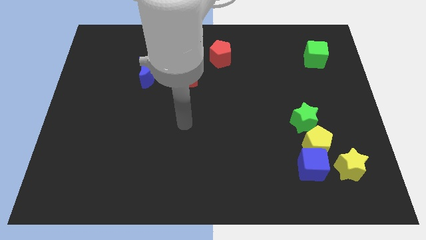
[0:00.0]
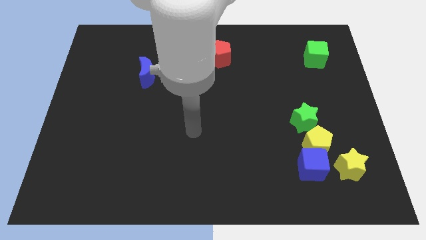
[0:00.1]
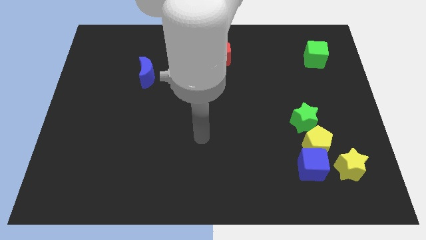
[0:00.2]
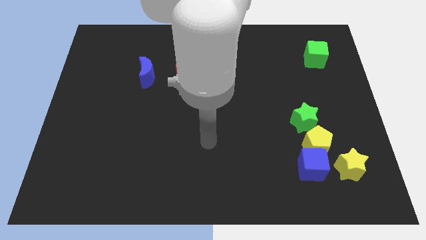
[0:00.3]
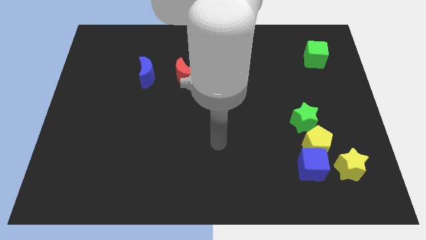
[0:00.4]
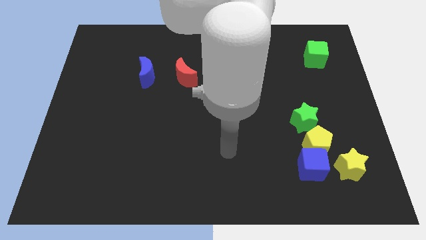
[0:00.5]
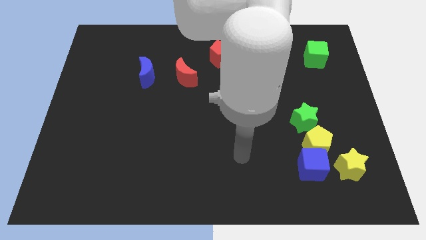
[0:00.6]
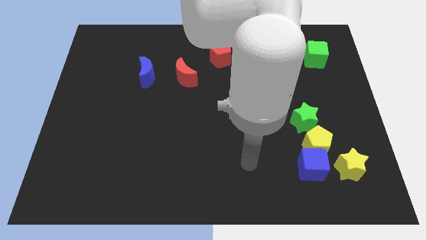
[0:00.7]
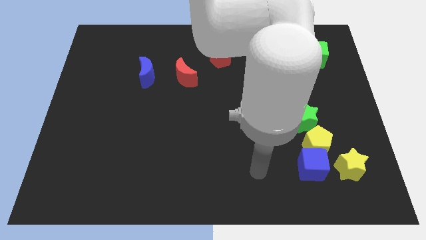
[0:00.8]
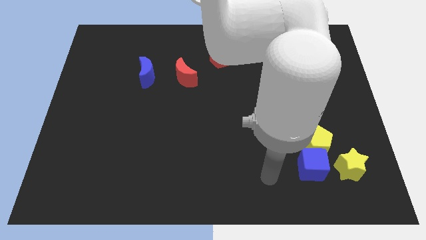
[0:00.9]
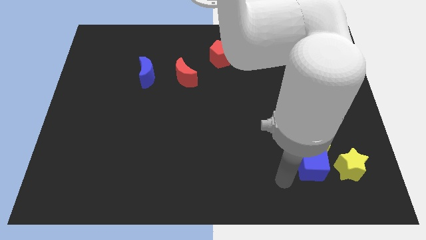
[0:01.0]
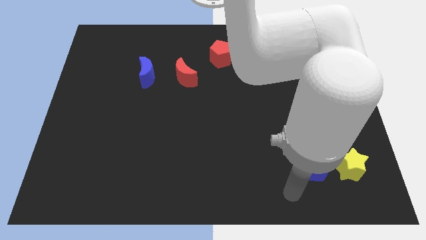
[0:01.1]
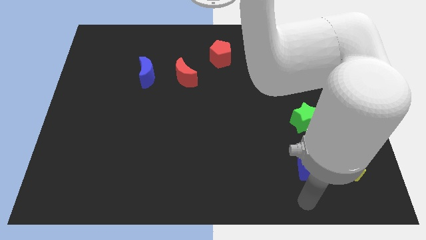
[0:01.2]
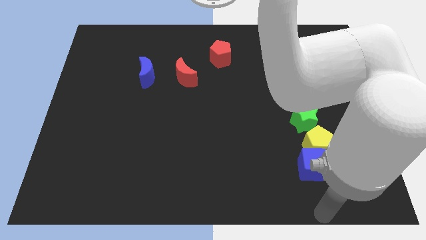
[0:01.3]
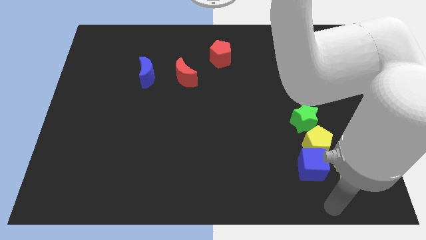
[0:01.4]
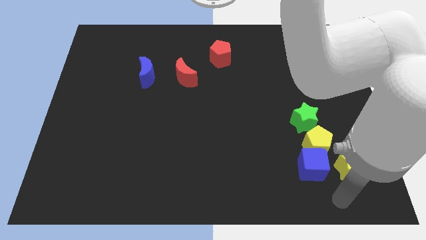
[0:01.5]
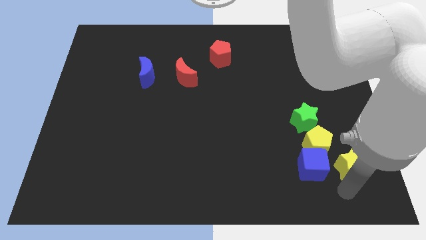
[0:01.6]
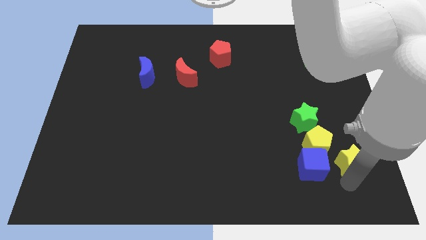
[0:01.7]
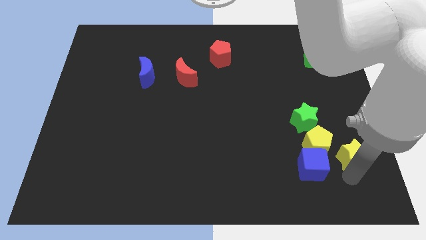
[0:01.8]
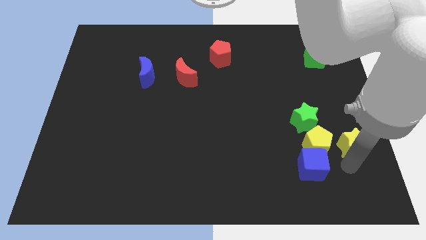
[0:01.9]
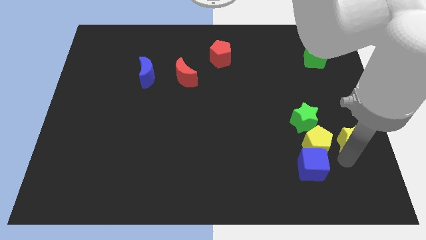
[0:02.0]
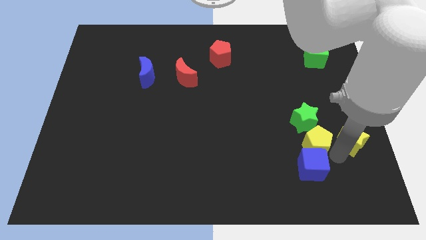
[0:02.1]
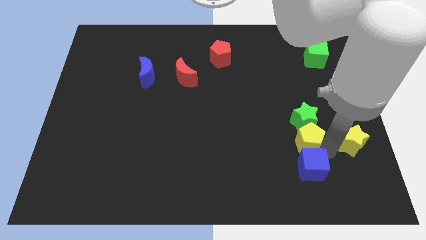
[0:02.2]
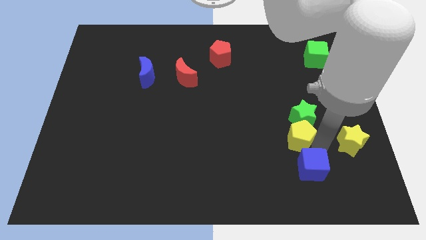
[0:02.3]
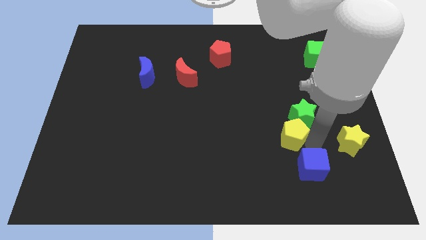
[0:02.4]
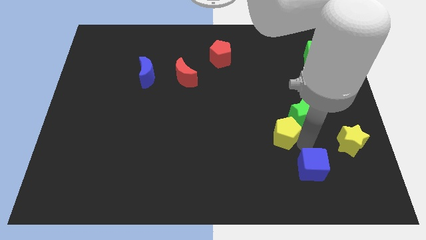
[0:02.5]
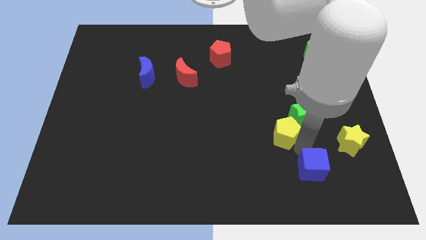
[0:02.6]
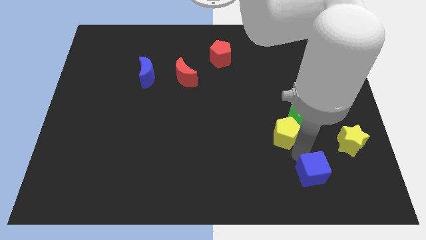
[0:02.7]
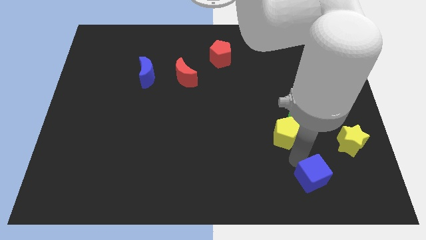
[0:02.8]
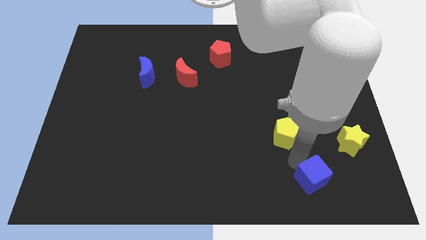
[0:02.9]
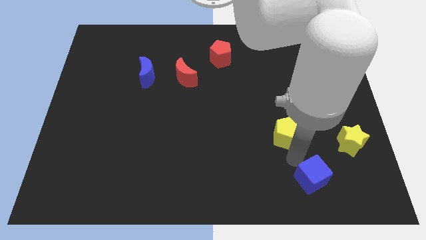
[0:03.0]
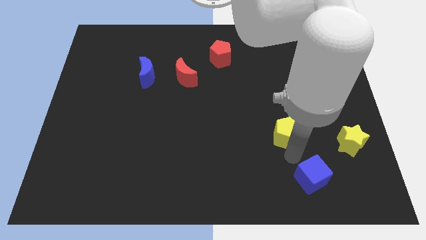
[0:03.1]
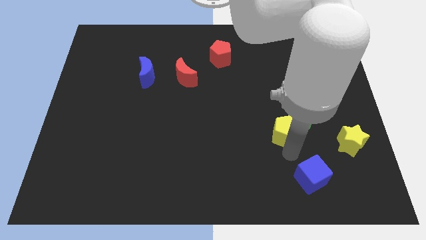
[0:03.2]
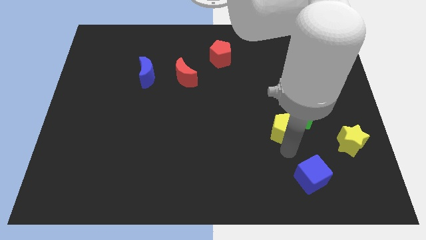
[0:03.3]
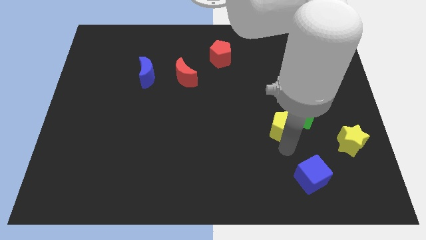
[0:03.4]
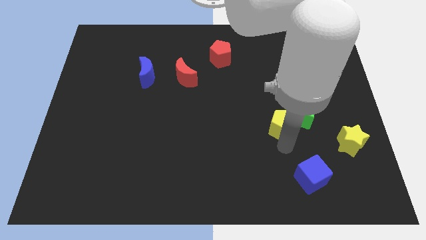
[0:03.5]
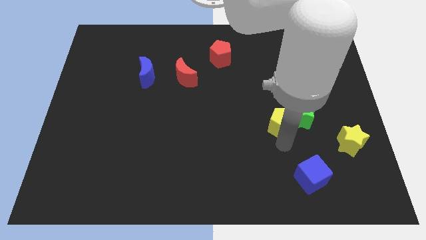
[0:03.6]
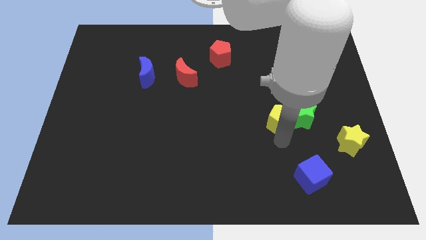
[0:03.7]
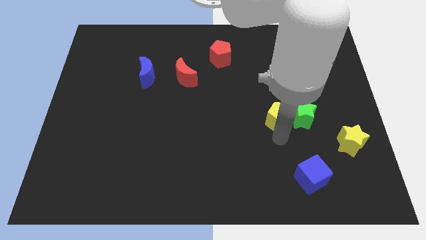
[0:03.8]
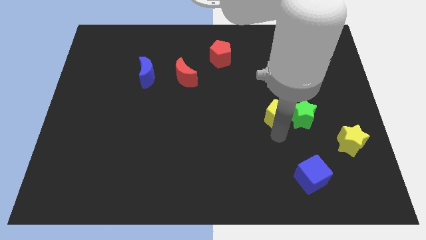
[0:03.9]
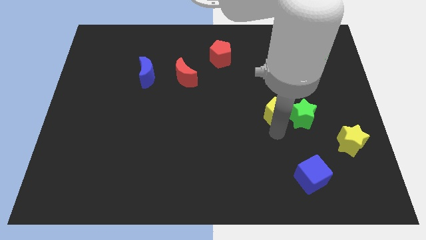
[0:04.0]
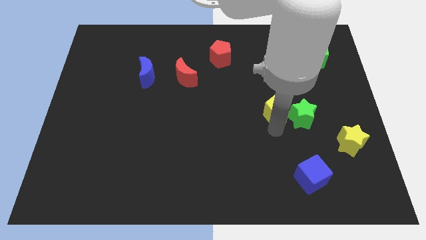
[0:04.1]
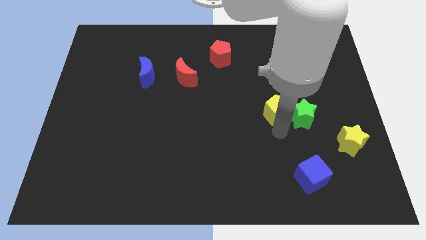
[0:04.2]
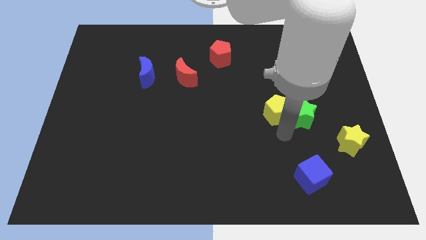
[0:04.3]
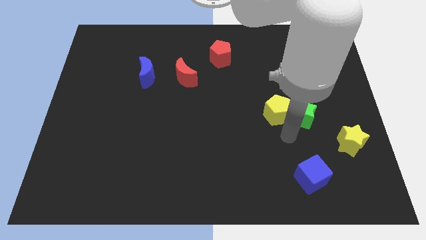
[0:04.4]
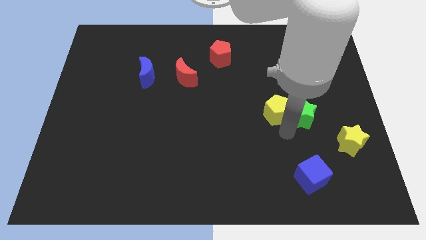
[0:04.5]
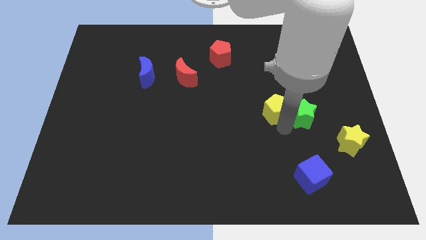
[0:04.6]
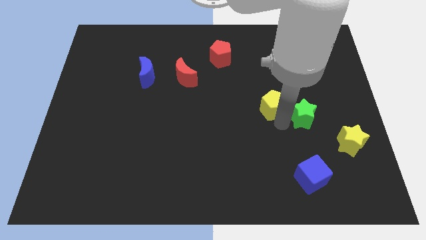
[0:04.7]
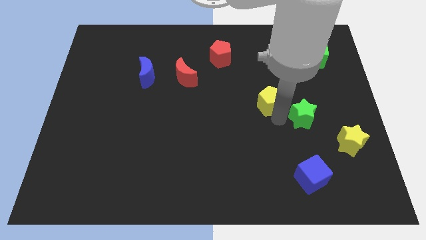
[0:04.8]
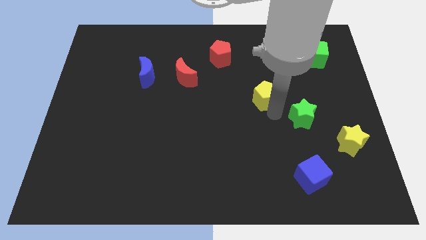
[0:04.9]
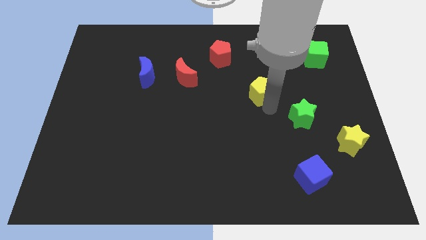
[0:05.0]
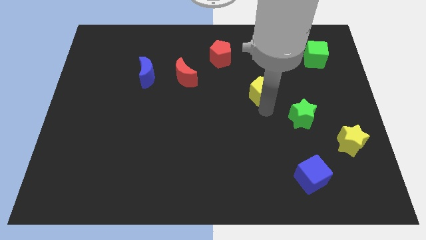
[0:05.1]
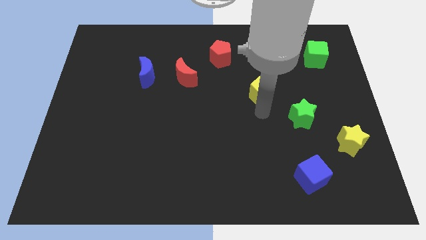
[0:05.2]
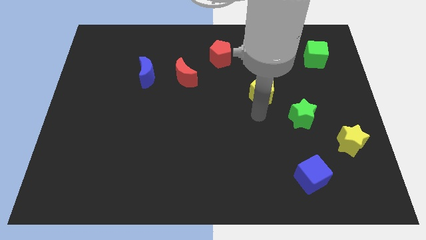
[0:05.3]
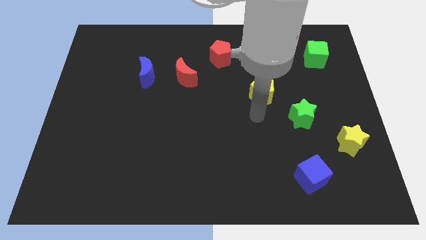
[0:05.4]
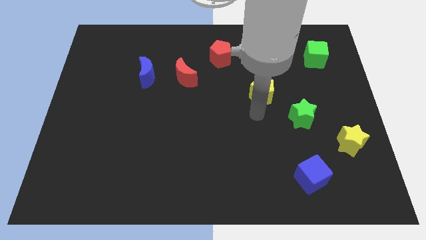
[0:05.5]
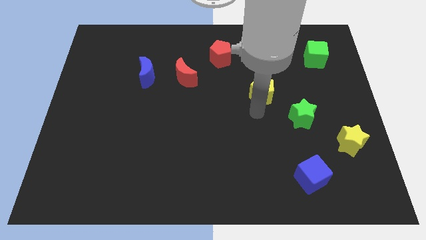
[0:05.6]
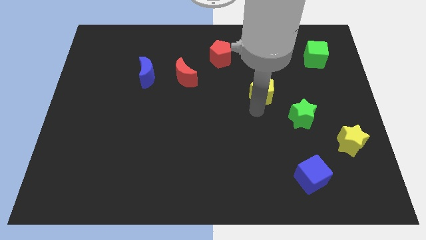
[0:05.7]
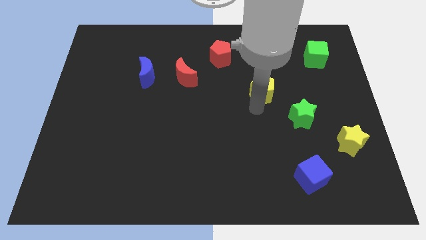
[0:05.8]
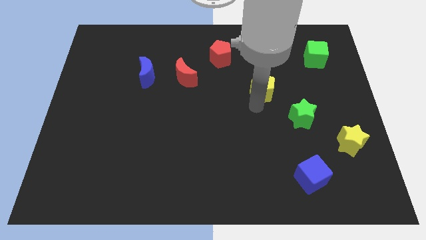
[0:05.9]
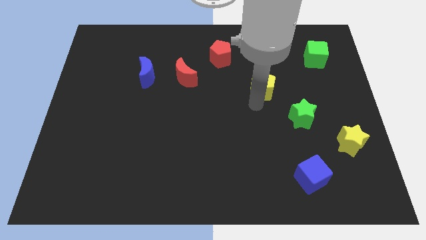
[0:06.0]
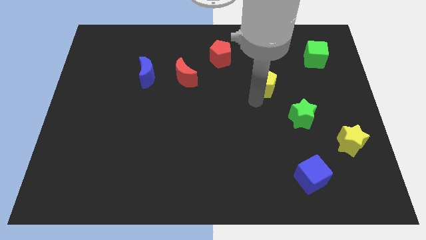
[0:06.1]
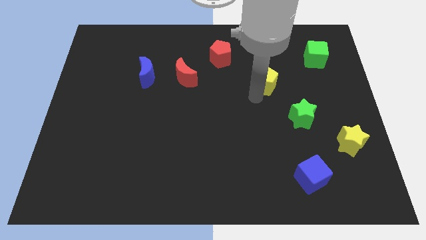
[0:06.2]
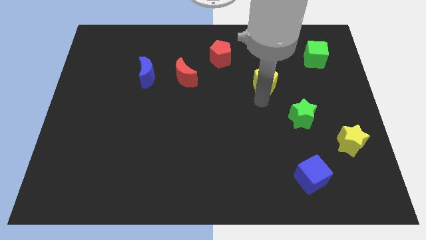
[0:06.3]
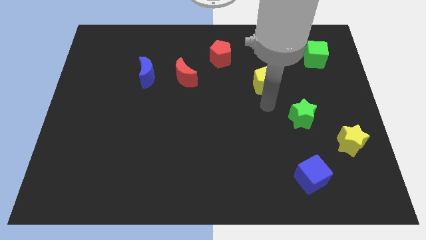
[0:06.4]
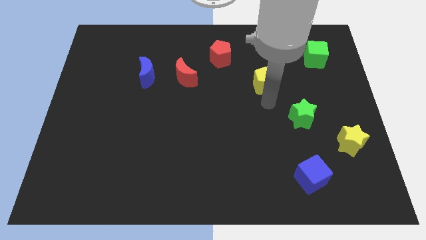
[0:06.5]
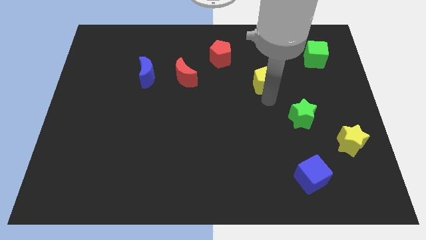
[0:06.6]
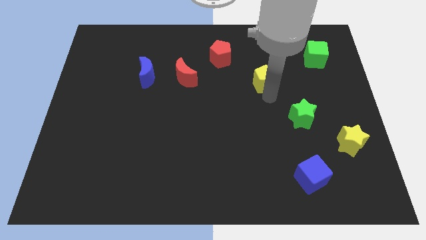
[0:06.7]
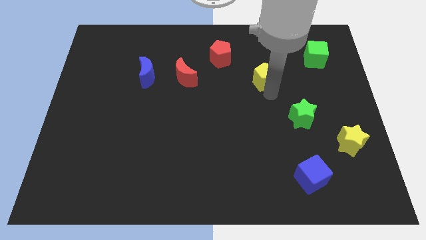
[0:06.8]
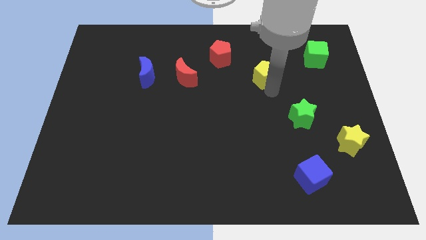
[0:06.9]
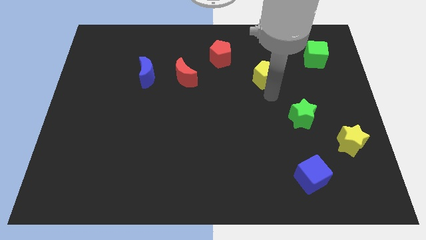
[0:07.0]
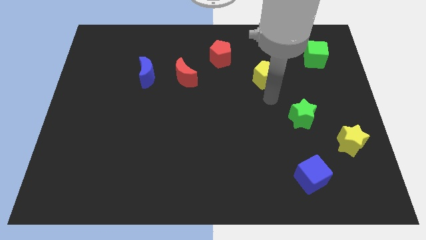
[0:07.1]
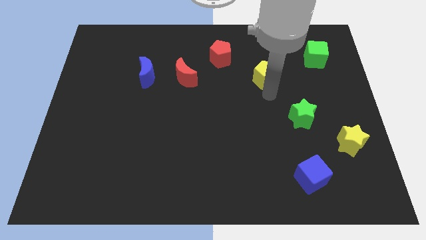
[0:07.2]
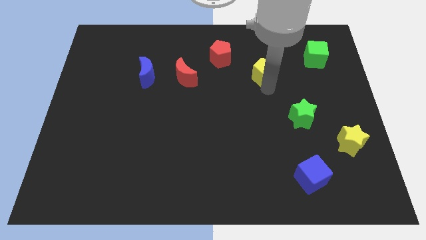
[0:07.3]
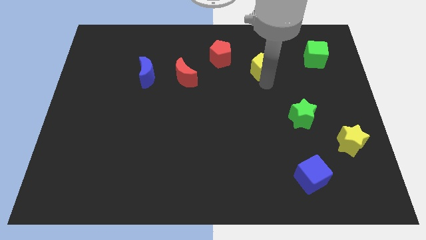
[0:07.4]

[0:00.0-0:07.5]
push the yellow pentagon right of the red pentagon

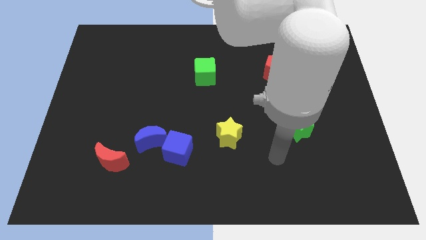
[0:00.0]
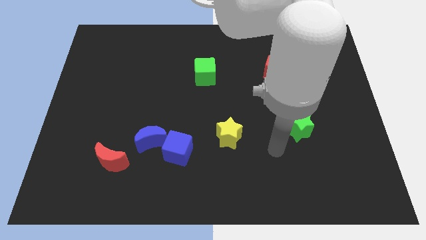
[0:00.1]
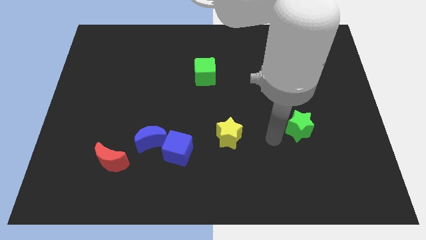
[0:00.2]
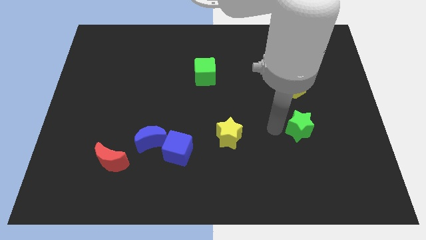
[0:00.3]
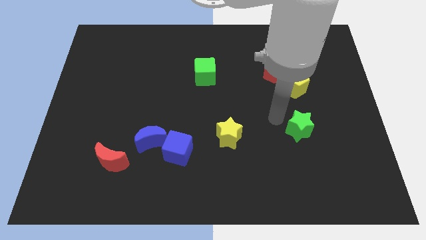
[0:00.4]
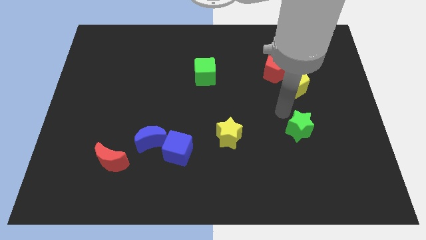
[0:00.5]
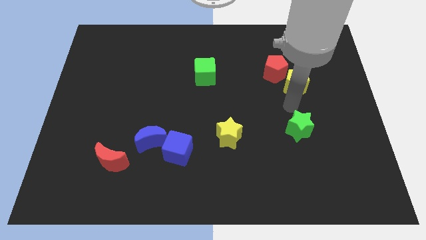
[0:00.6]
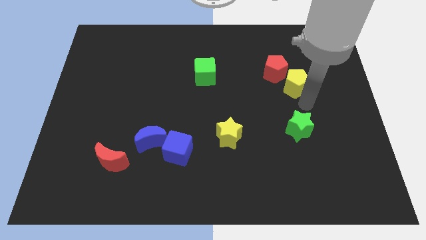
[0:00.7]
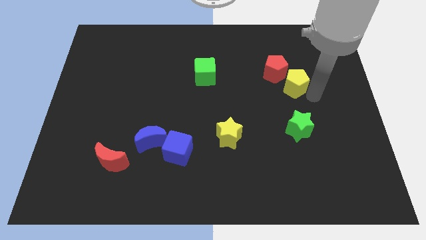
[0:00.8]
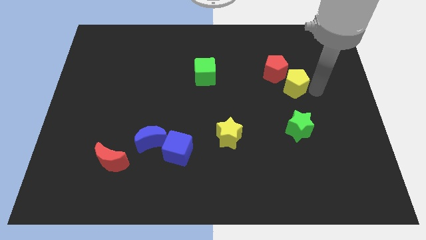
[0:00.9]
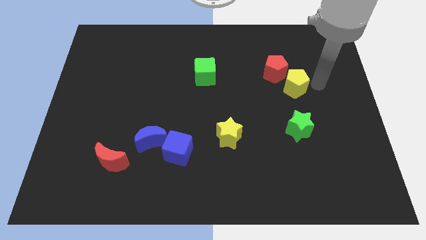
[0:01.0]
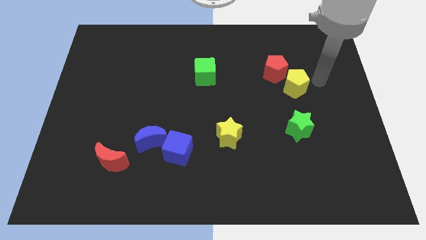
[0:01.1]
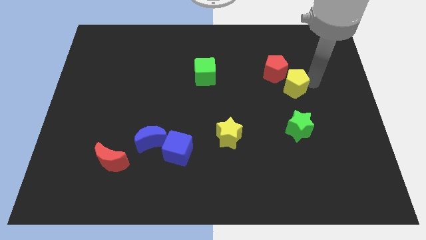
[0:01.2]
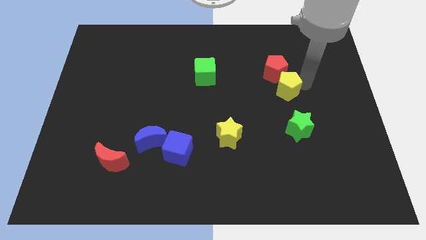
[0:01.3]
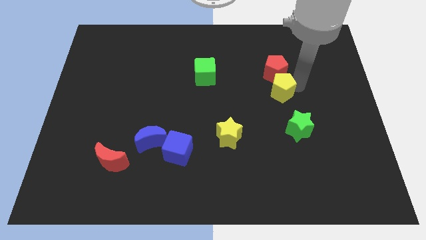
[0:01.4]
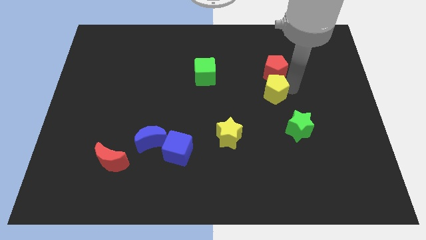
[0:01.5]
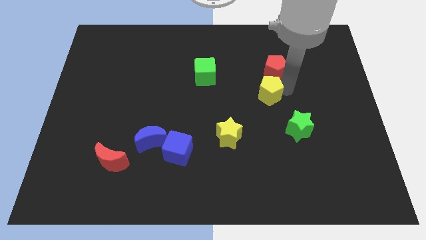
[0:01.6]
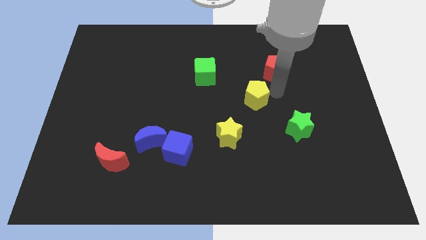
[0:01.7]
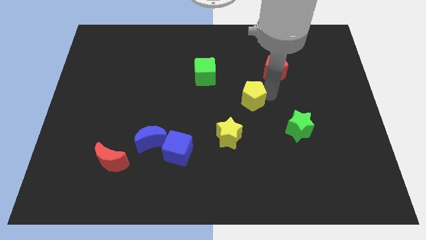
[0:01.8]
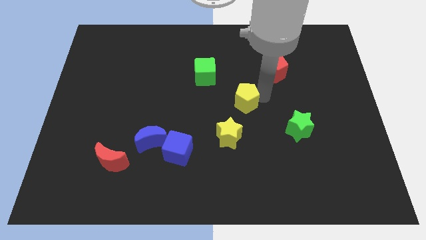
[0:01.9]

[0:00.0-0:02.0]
slide the yellow pentagon to the top of the yellow star
